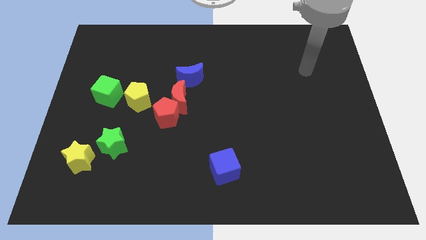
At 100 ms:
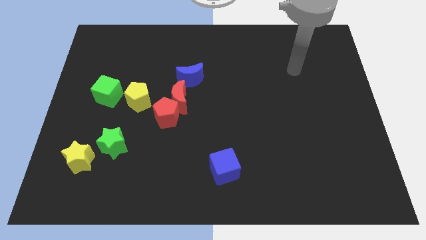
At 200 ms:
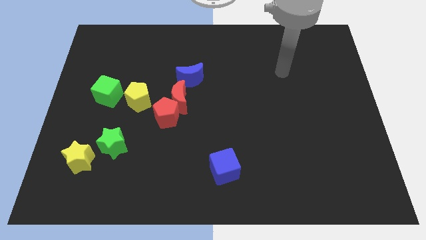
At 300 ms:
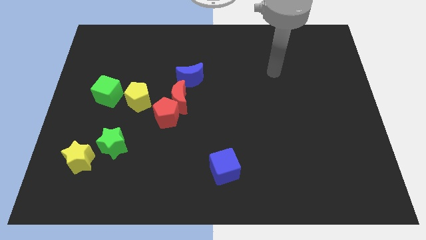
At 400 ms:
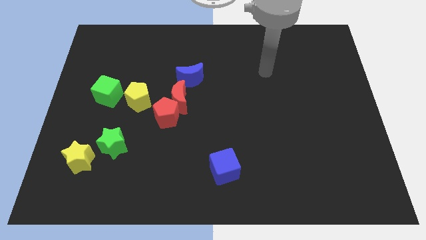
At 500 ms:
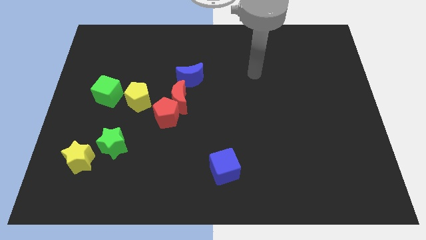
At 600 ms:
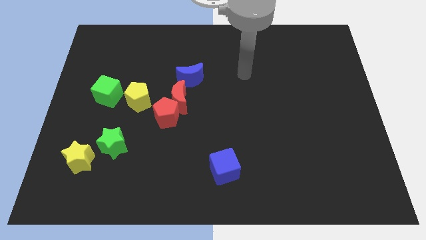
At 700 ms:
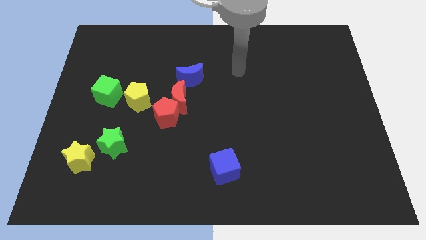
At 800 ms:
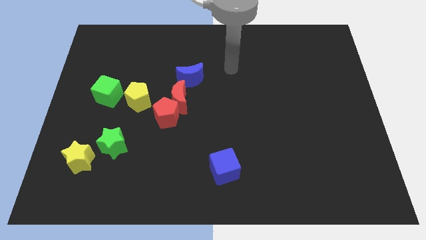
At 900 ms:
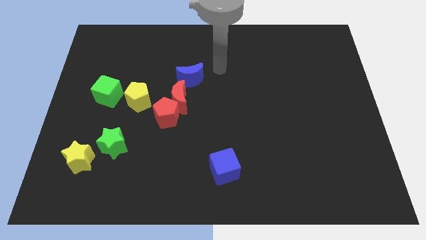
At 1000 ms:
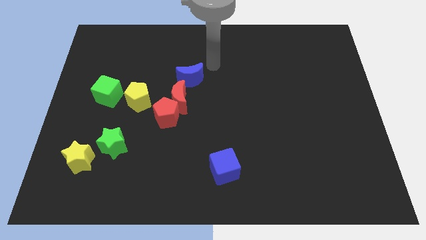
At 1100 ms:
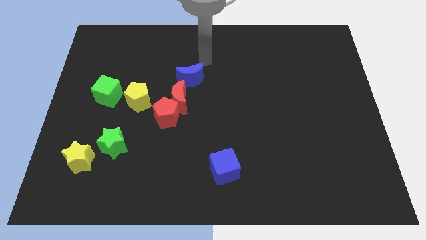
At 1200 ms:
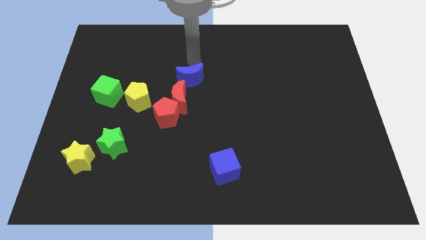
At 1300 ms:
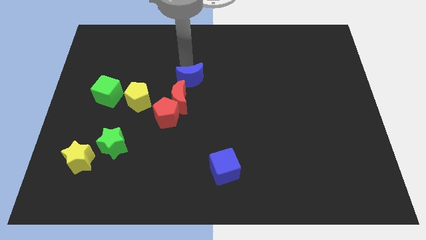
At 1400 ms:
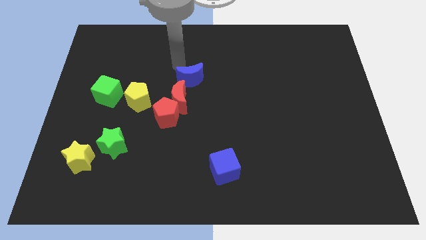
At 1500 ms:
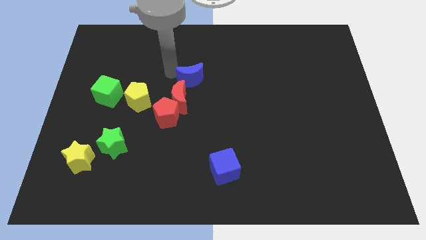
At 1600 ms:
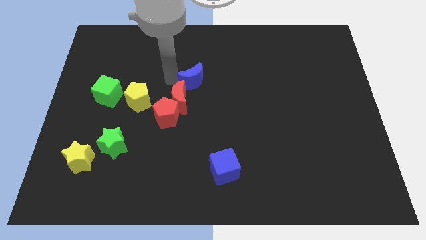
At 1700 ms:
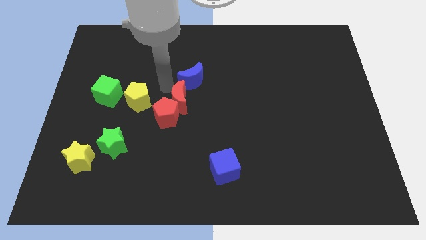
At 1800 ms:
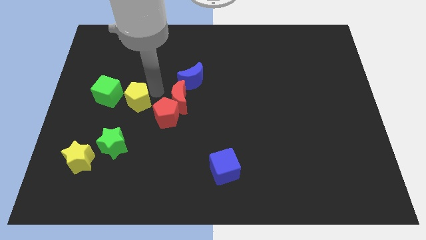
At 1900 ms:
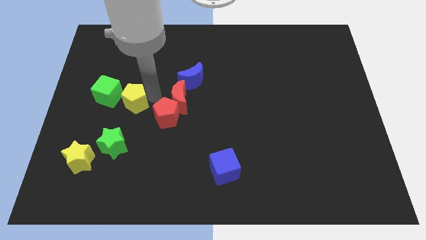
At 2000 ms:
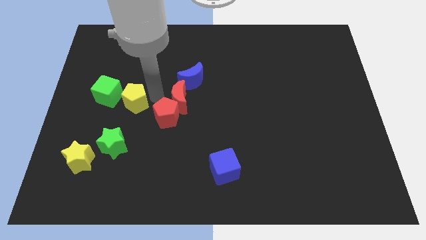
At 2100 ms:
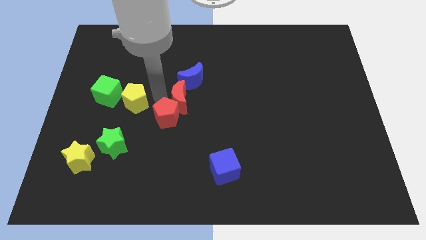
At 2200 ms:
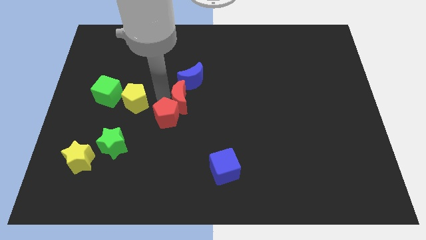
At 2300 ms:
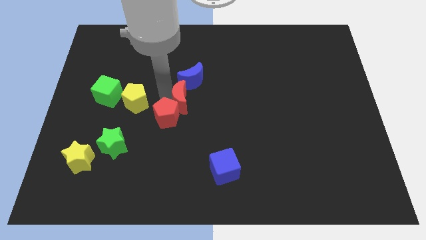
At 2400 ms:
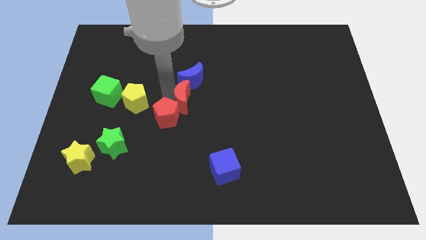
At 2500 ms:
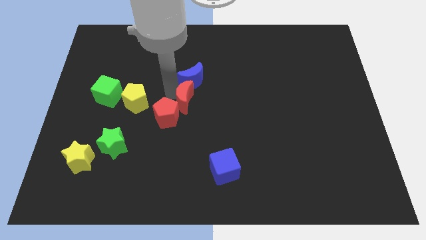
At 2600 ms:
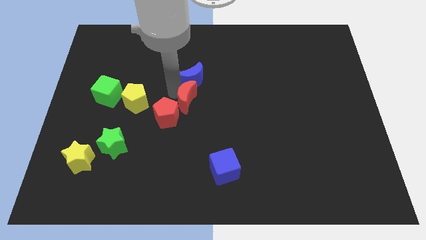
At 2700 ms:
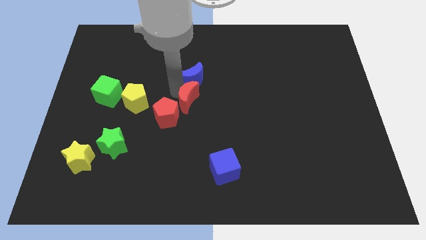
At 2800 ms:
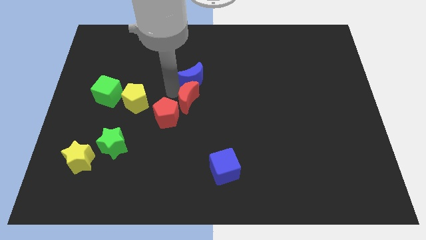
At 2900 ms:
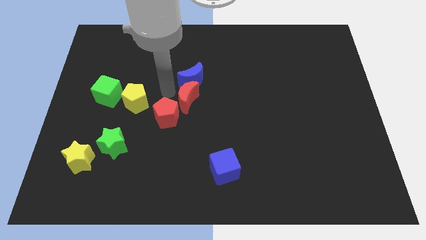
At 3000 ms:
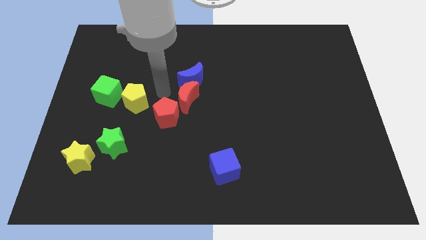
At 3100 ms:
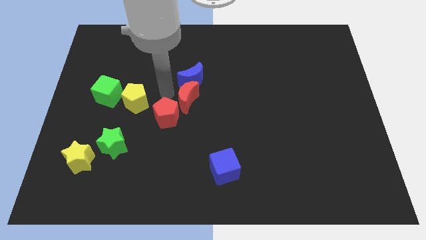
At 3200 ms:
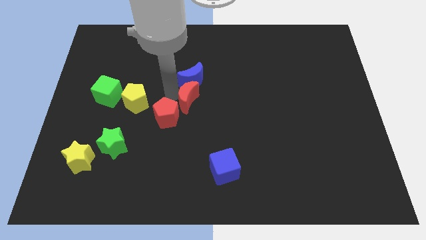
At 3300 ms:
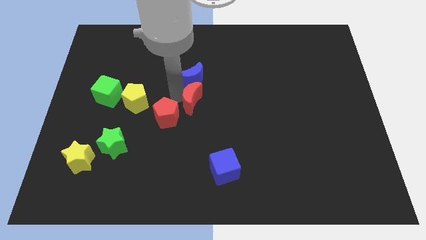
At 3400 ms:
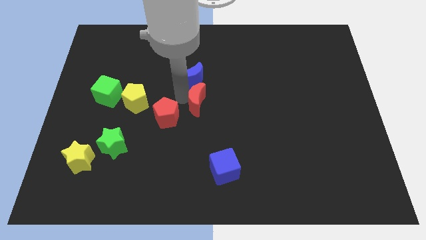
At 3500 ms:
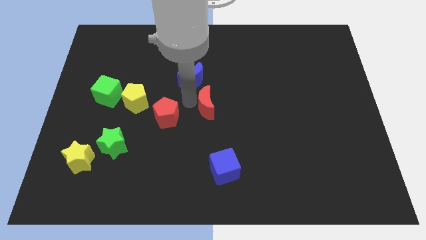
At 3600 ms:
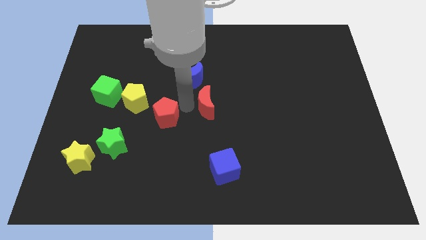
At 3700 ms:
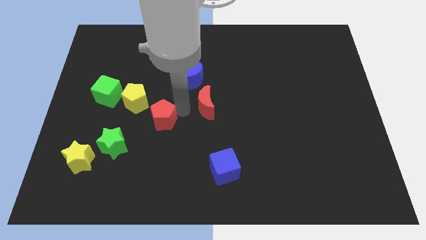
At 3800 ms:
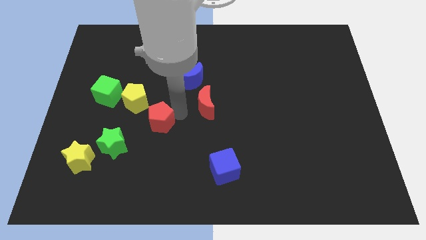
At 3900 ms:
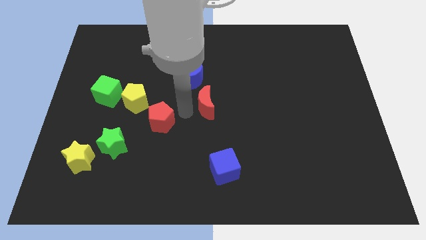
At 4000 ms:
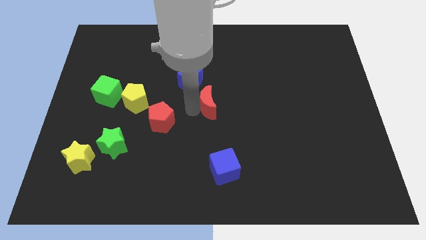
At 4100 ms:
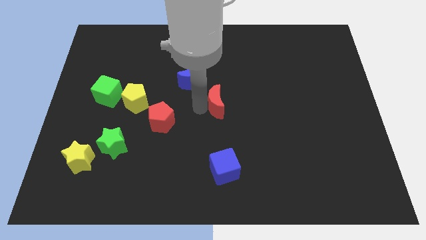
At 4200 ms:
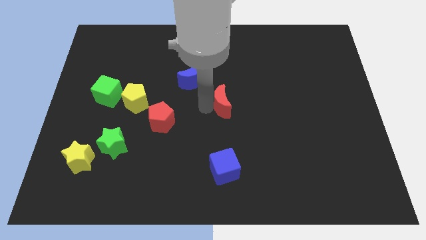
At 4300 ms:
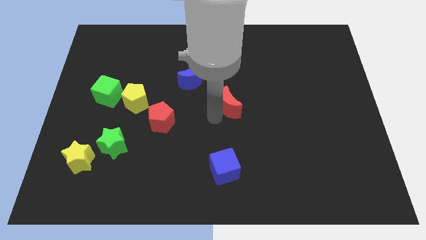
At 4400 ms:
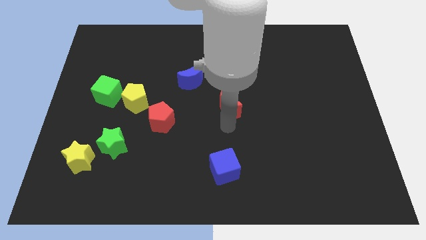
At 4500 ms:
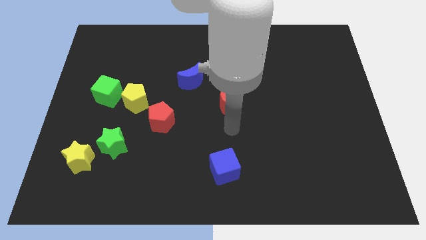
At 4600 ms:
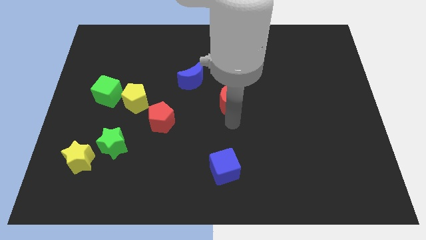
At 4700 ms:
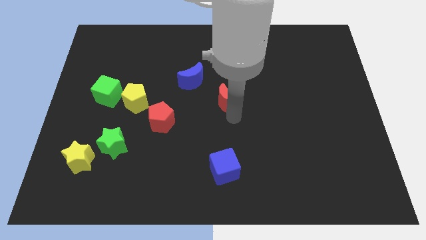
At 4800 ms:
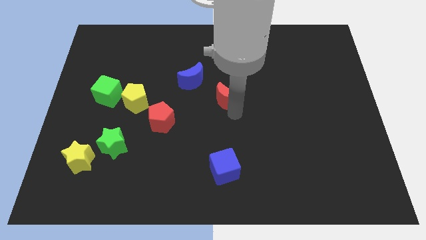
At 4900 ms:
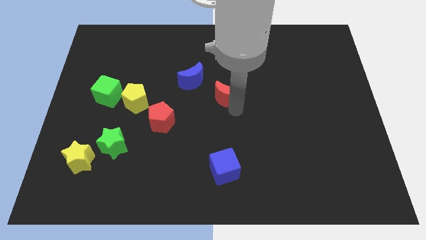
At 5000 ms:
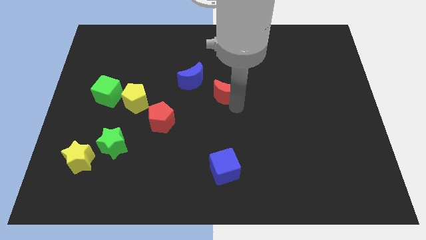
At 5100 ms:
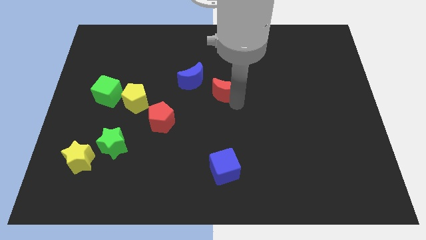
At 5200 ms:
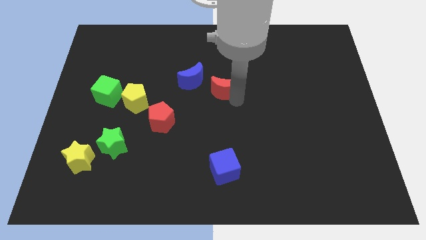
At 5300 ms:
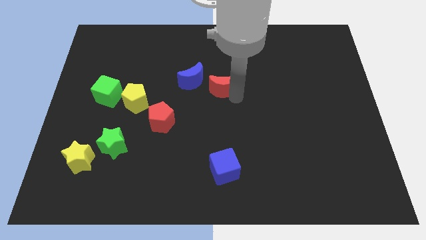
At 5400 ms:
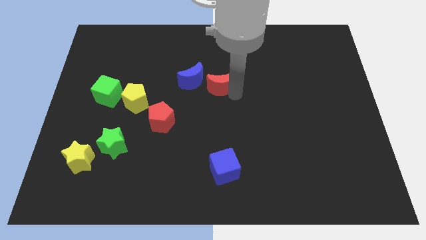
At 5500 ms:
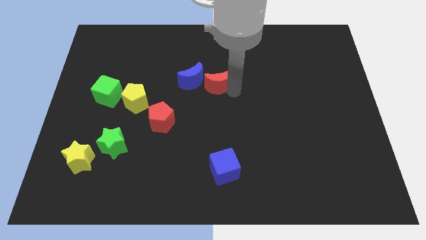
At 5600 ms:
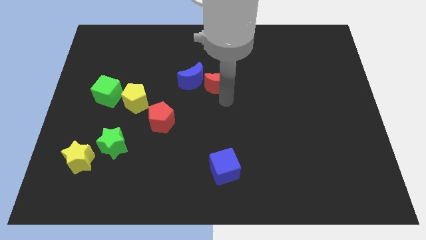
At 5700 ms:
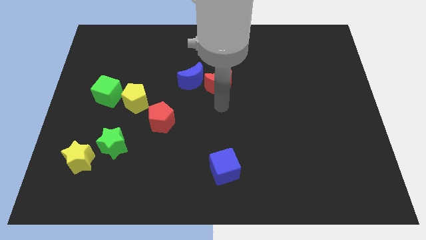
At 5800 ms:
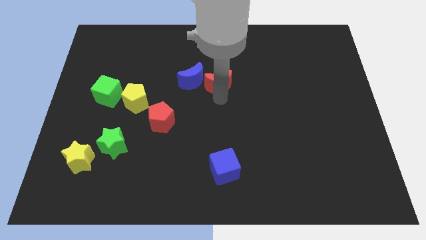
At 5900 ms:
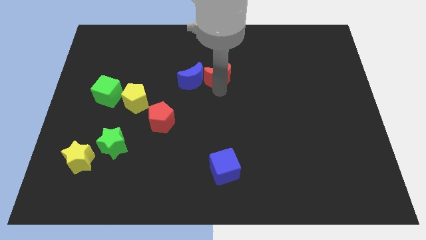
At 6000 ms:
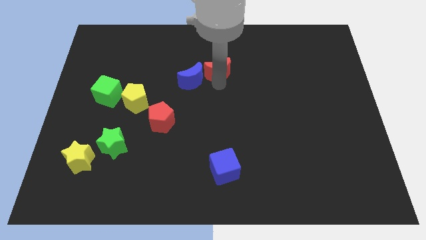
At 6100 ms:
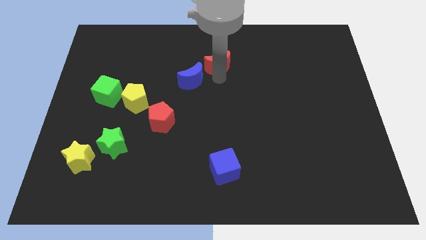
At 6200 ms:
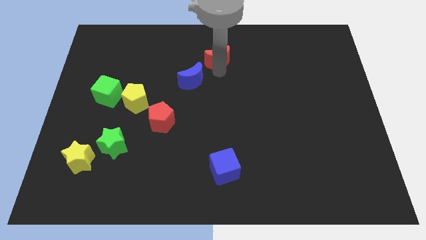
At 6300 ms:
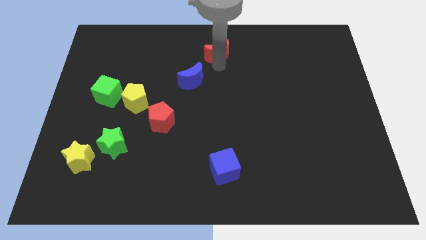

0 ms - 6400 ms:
slide the red moon to the top
